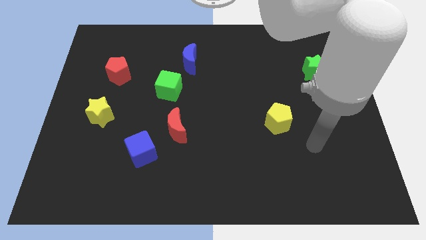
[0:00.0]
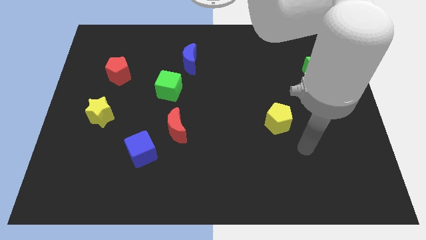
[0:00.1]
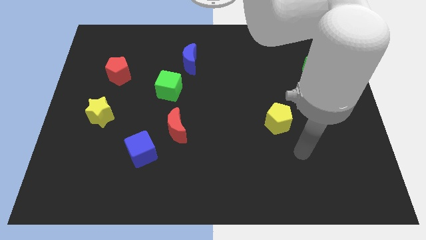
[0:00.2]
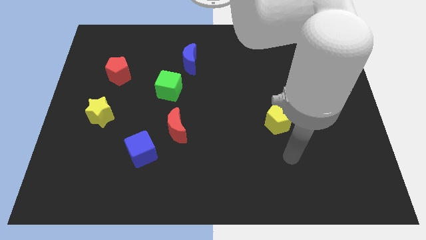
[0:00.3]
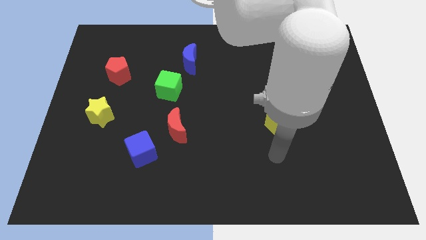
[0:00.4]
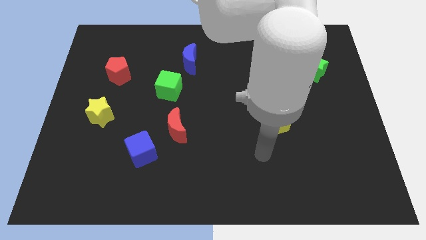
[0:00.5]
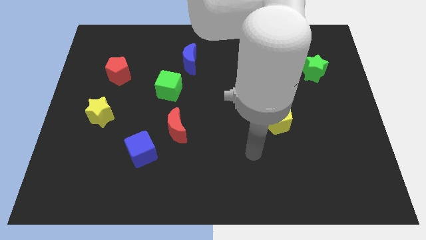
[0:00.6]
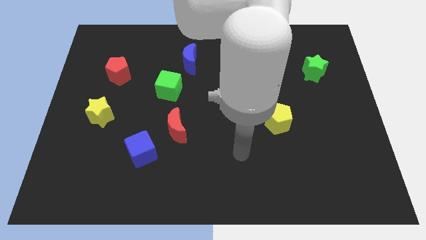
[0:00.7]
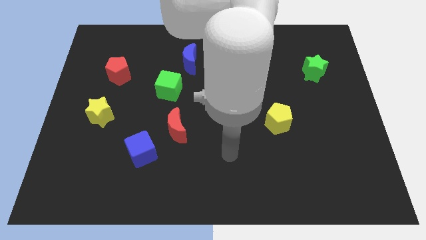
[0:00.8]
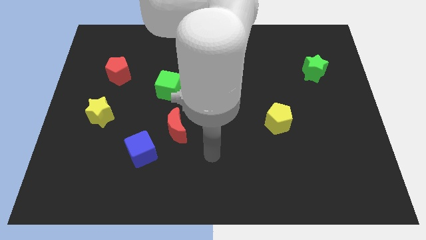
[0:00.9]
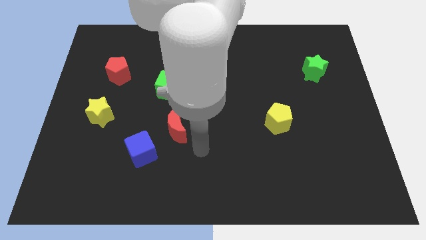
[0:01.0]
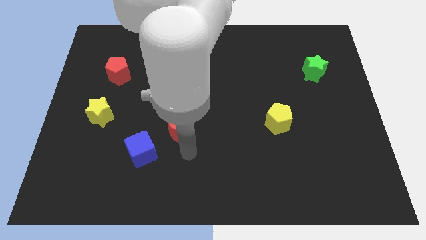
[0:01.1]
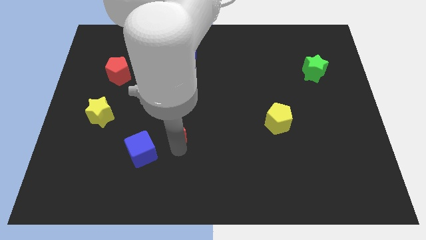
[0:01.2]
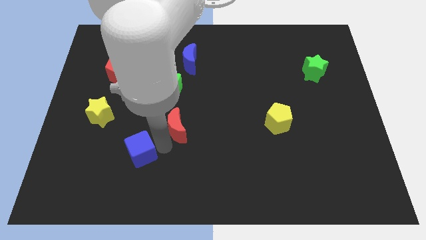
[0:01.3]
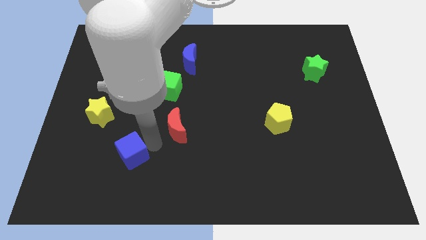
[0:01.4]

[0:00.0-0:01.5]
pull the red moon apart from the blue cube

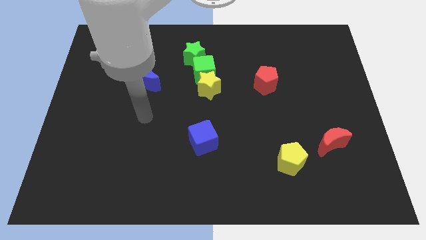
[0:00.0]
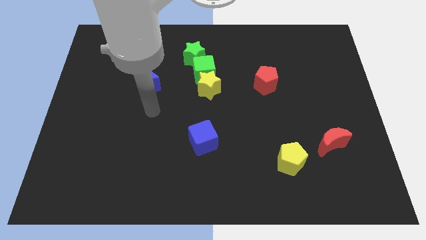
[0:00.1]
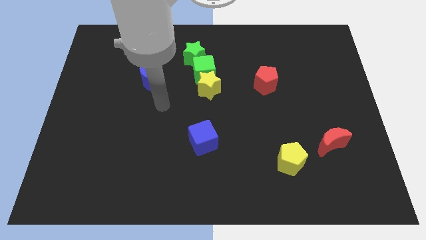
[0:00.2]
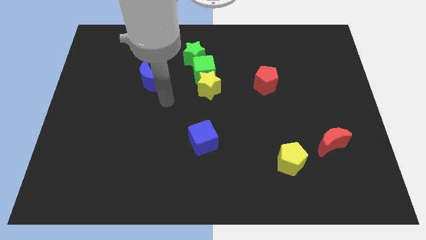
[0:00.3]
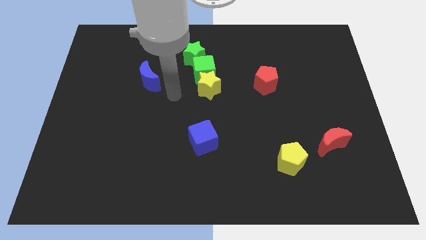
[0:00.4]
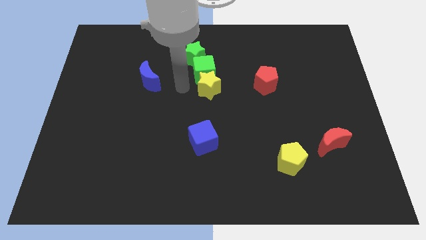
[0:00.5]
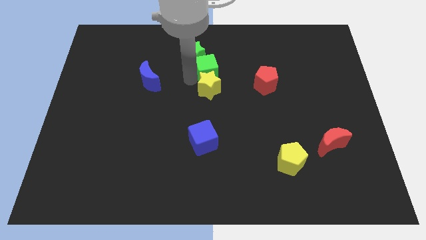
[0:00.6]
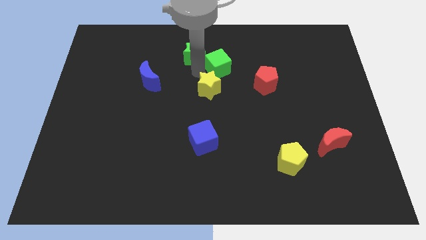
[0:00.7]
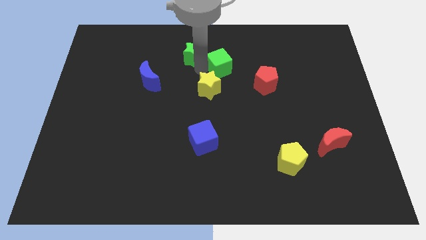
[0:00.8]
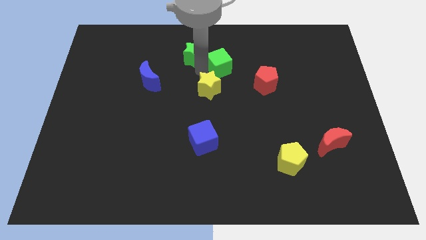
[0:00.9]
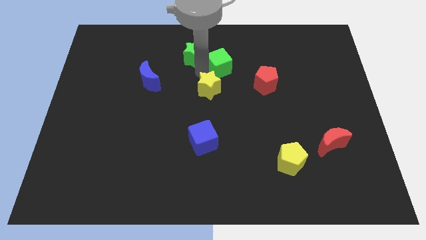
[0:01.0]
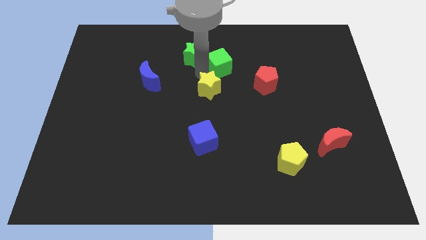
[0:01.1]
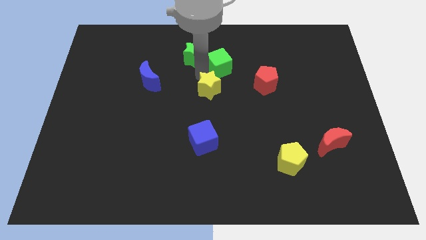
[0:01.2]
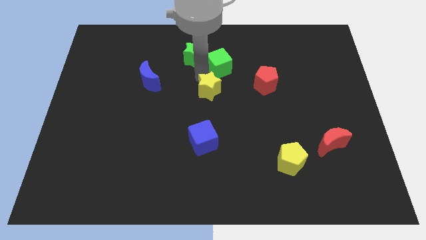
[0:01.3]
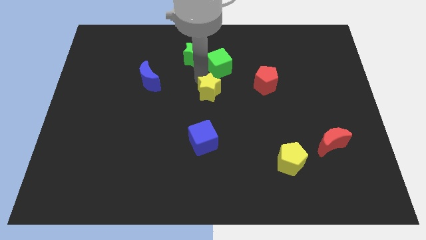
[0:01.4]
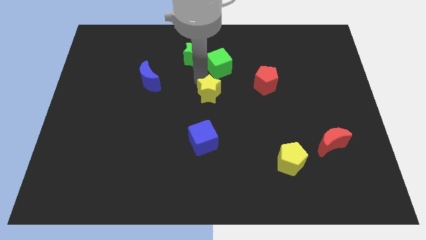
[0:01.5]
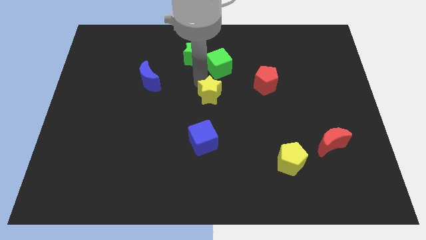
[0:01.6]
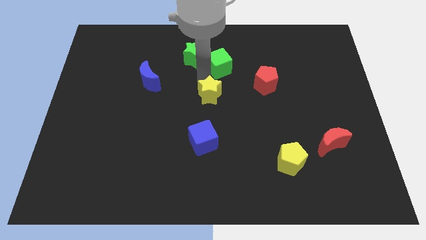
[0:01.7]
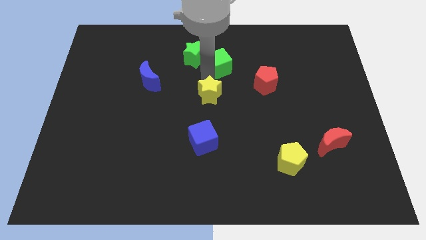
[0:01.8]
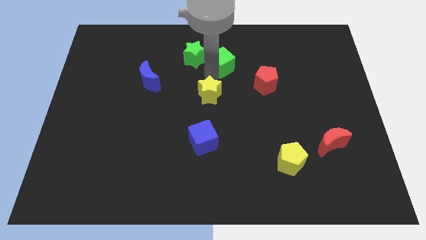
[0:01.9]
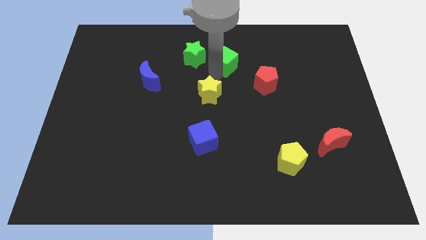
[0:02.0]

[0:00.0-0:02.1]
separate the yellow star from the green cube

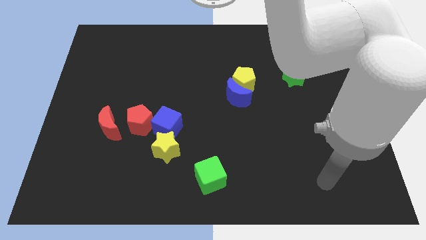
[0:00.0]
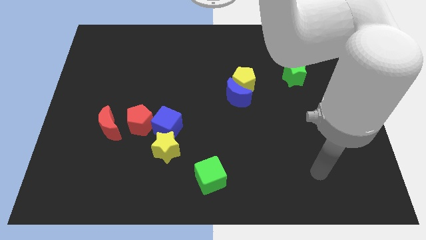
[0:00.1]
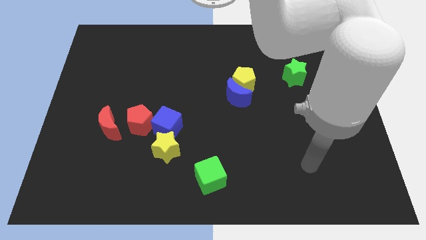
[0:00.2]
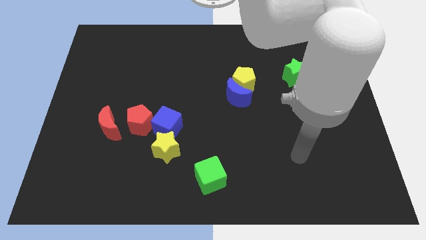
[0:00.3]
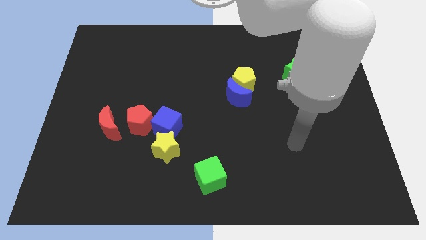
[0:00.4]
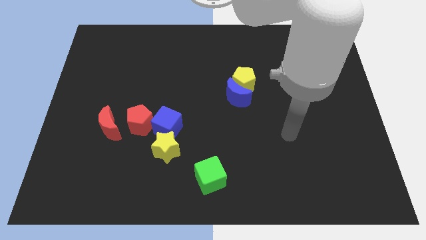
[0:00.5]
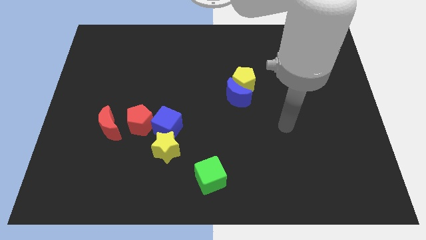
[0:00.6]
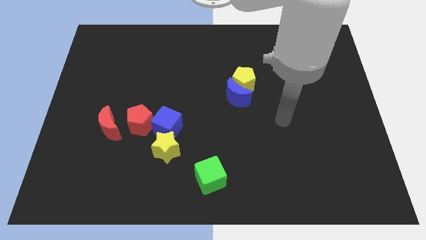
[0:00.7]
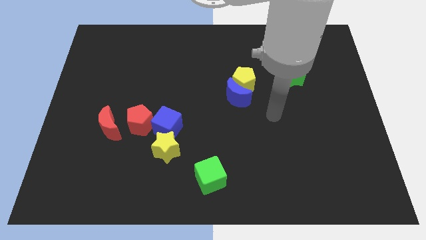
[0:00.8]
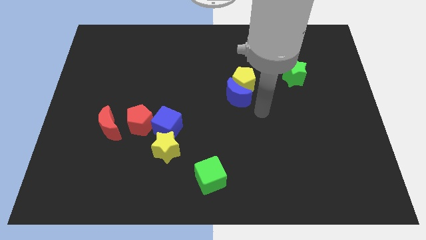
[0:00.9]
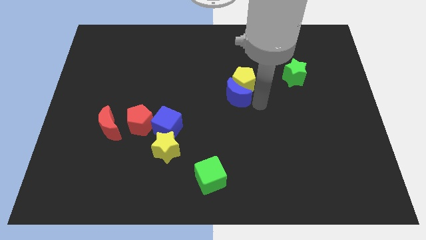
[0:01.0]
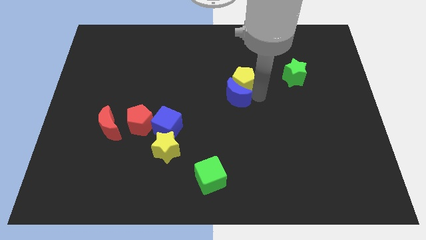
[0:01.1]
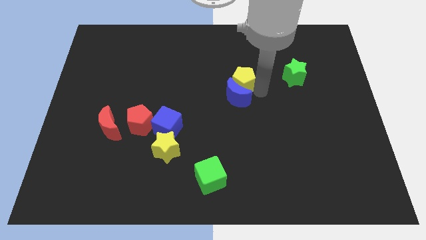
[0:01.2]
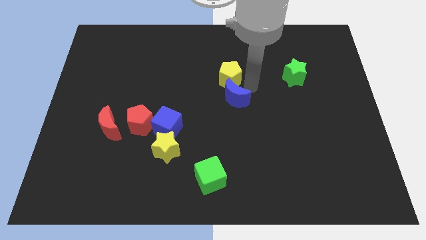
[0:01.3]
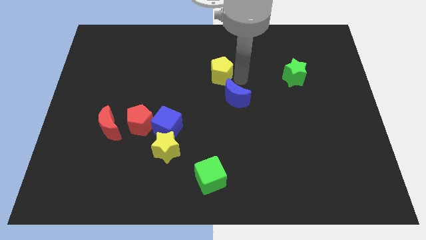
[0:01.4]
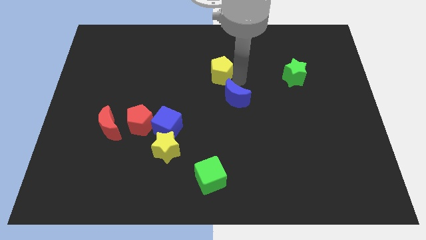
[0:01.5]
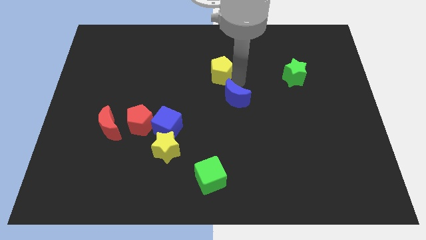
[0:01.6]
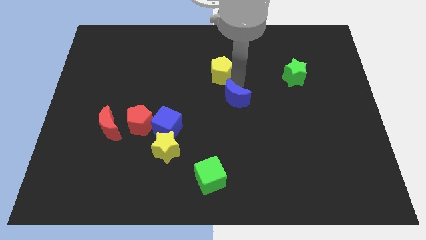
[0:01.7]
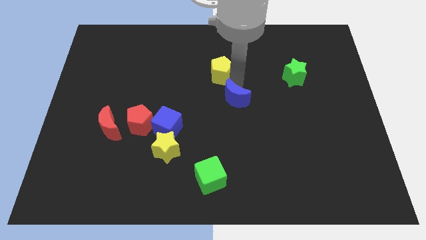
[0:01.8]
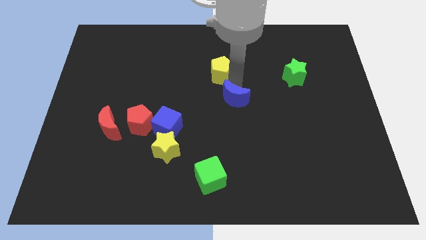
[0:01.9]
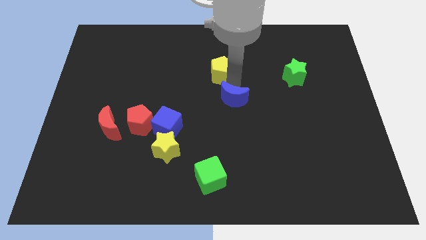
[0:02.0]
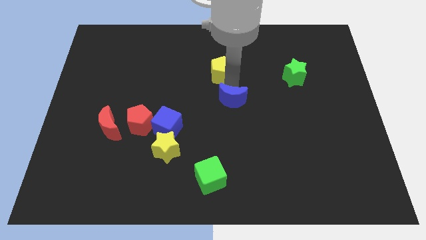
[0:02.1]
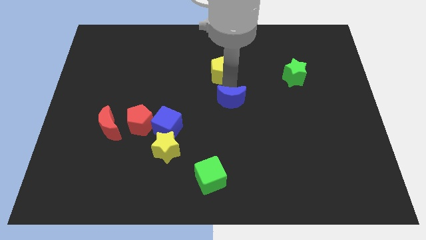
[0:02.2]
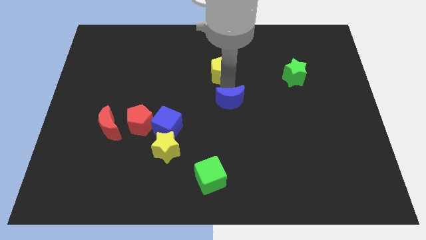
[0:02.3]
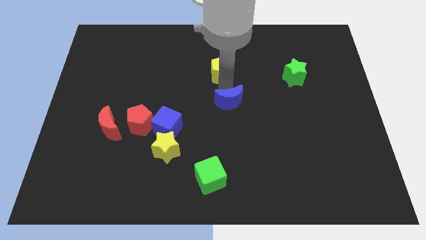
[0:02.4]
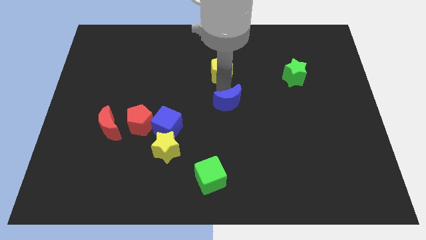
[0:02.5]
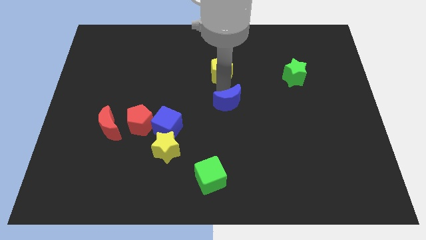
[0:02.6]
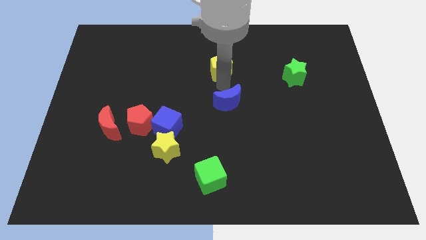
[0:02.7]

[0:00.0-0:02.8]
move the blue moon away from the yellow pentagon

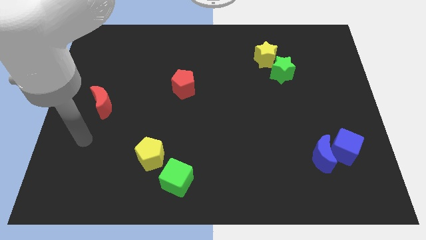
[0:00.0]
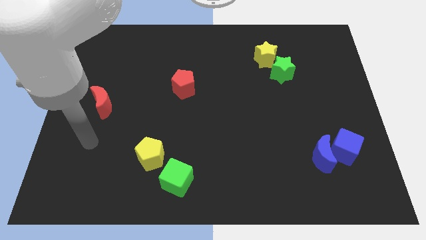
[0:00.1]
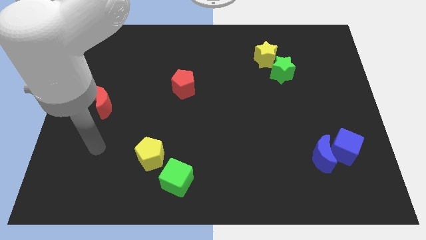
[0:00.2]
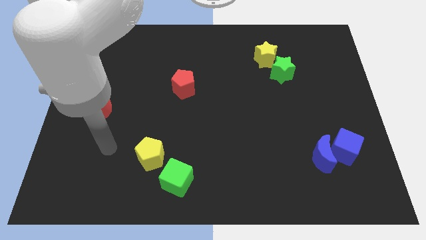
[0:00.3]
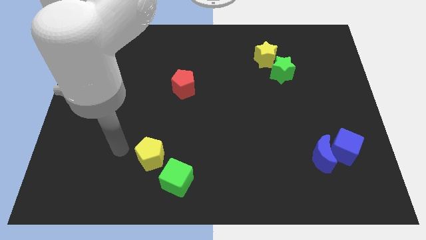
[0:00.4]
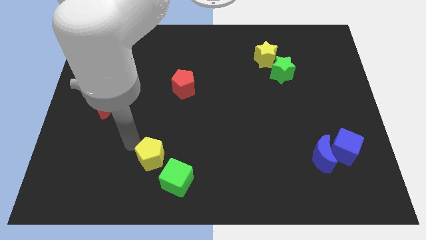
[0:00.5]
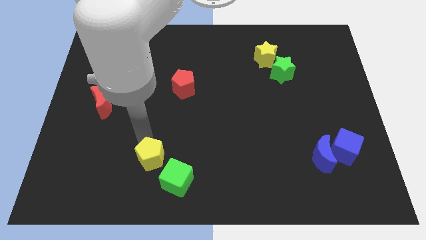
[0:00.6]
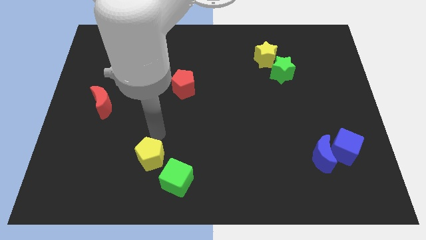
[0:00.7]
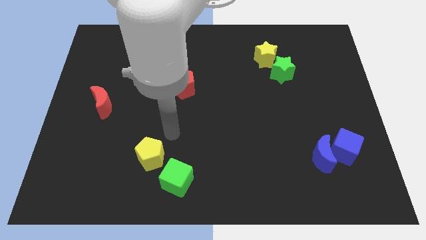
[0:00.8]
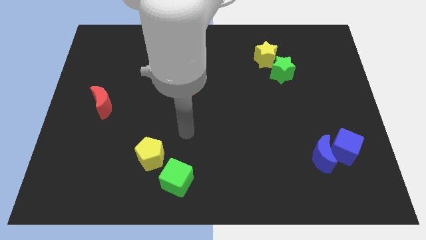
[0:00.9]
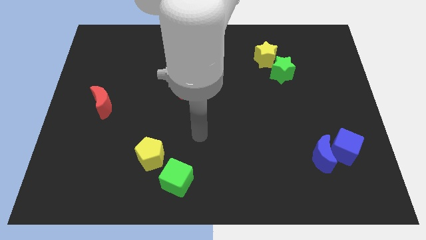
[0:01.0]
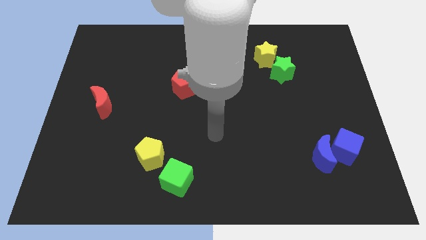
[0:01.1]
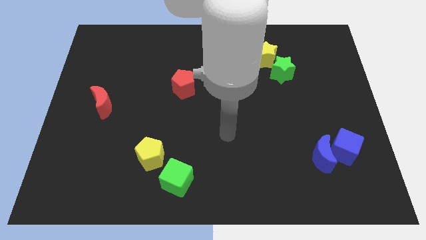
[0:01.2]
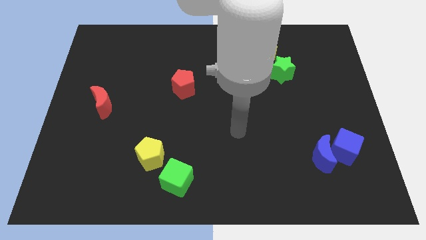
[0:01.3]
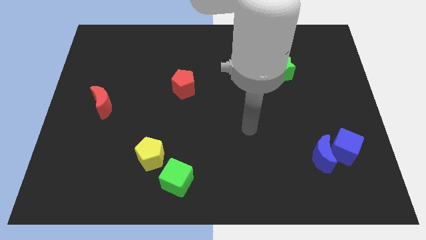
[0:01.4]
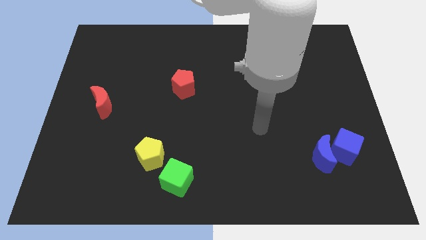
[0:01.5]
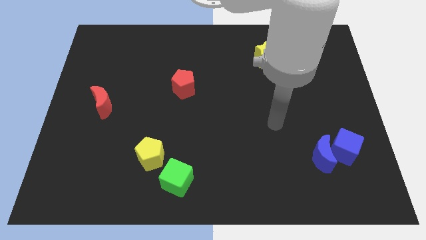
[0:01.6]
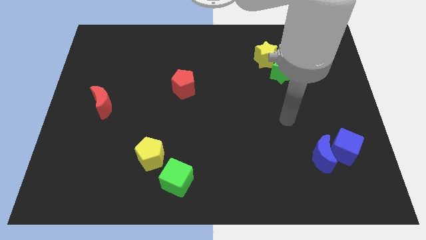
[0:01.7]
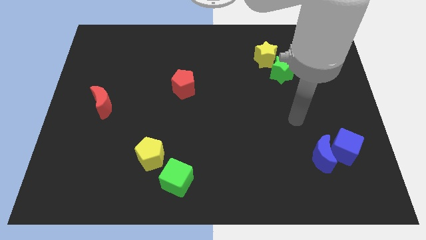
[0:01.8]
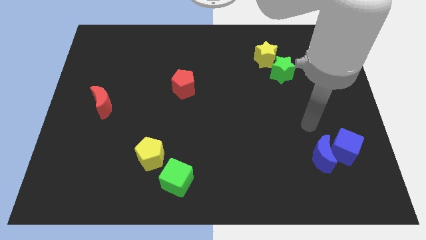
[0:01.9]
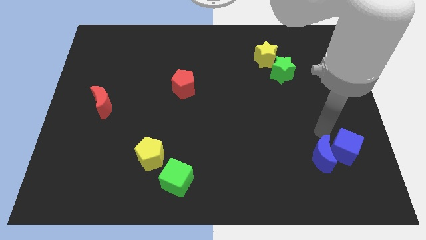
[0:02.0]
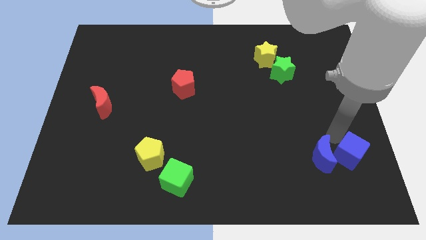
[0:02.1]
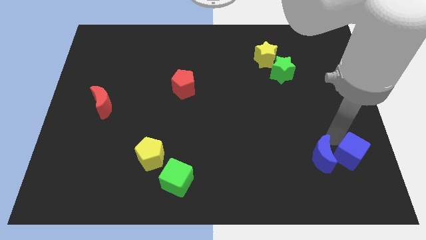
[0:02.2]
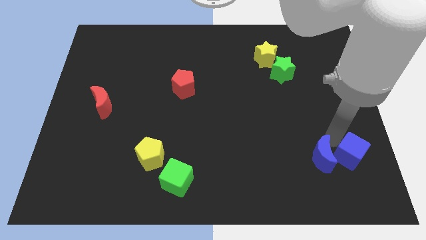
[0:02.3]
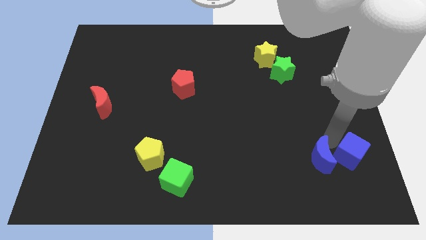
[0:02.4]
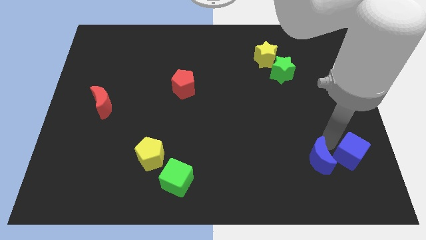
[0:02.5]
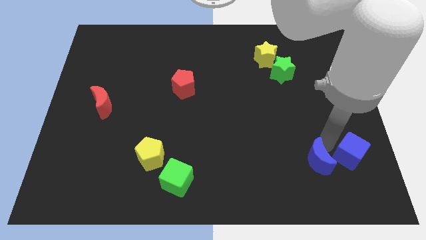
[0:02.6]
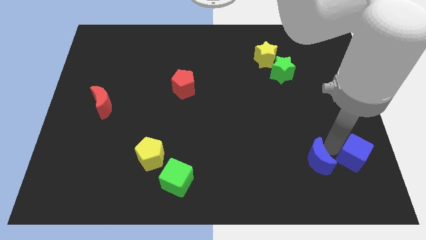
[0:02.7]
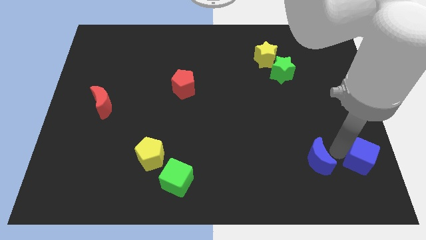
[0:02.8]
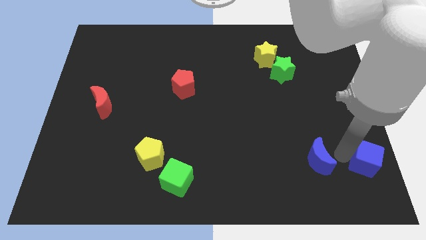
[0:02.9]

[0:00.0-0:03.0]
move the blue moon away from the blue cube
